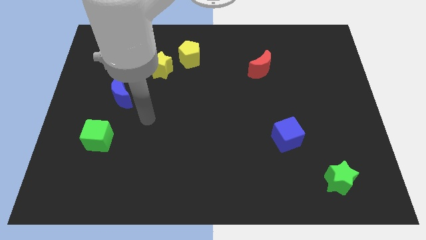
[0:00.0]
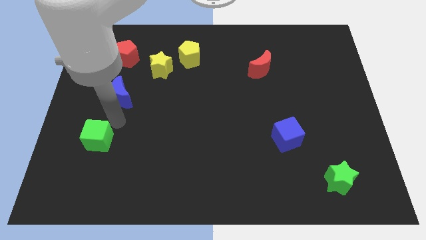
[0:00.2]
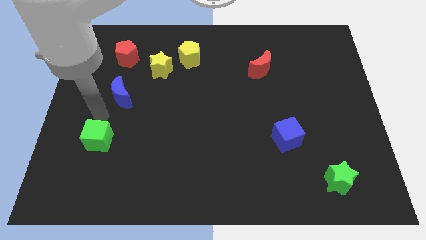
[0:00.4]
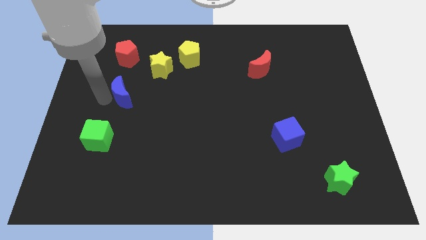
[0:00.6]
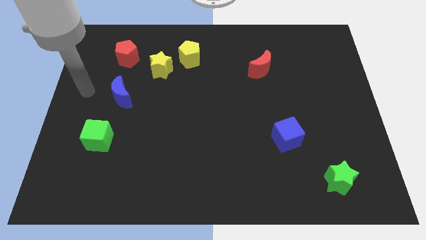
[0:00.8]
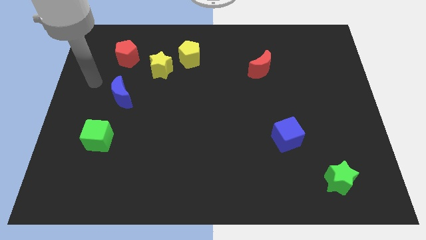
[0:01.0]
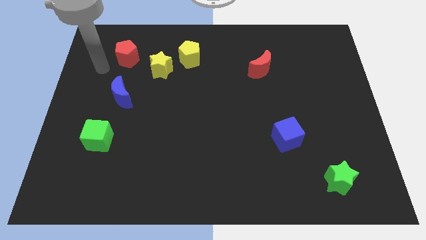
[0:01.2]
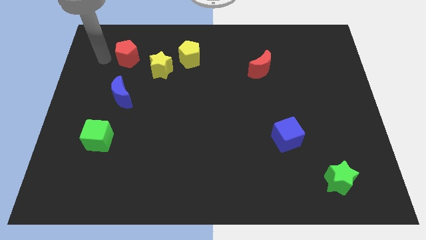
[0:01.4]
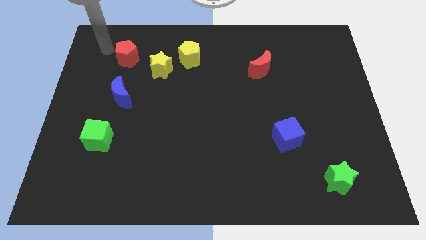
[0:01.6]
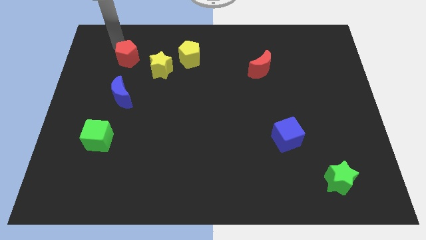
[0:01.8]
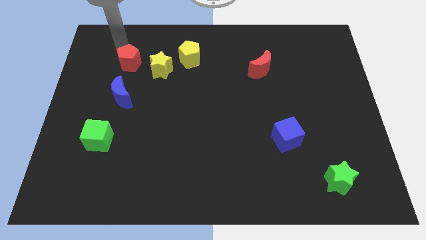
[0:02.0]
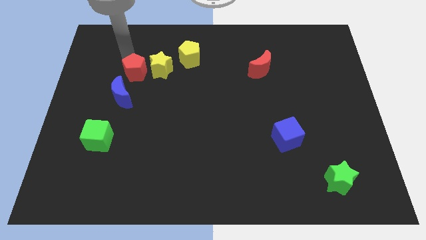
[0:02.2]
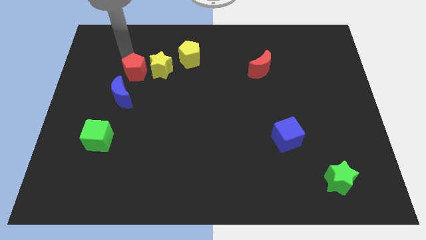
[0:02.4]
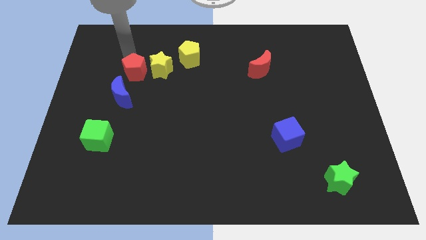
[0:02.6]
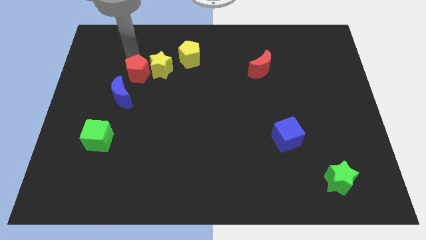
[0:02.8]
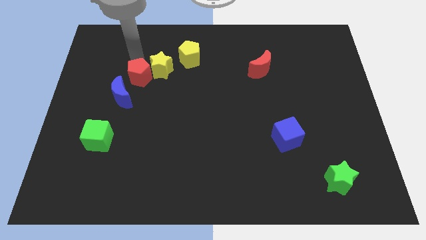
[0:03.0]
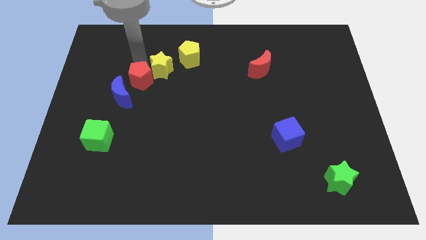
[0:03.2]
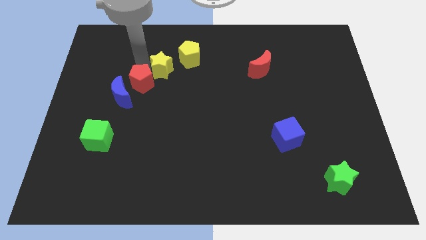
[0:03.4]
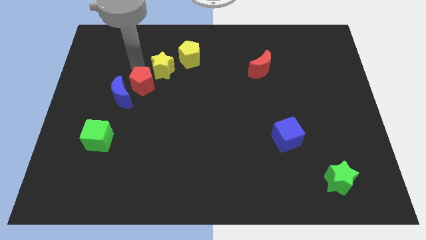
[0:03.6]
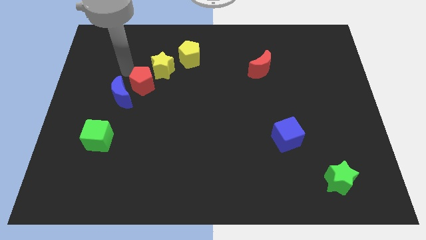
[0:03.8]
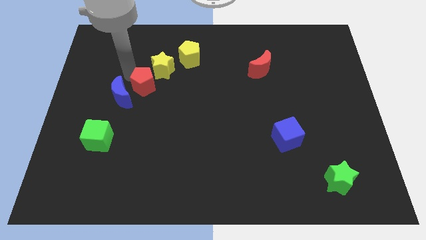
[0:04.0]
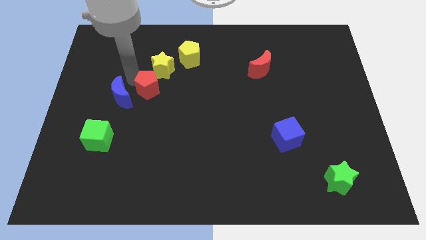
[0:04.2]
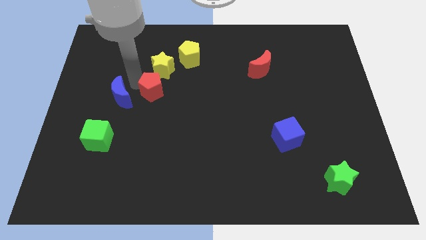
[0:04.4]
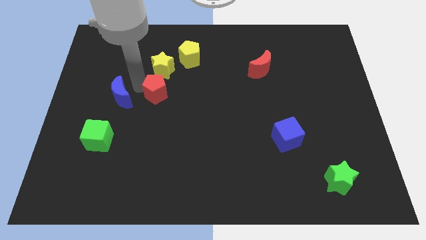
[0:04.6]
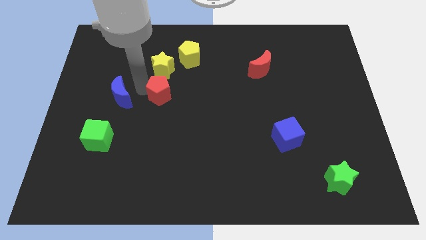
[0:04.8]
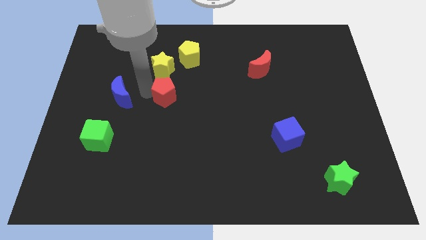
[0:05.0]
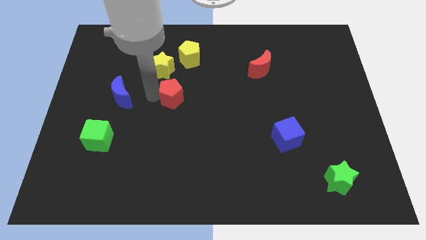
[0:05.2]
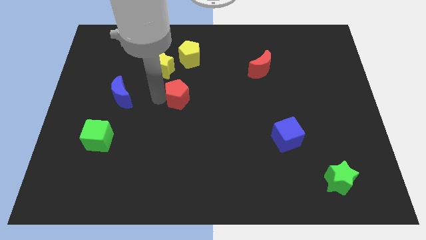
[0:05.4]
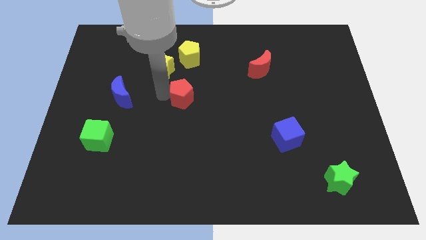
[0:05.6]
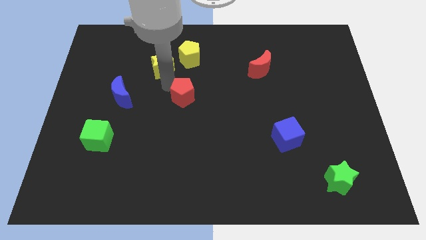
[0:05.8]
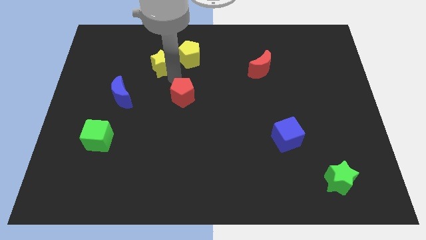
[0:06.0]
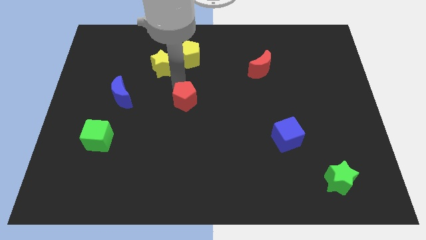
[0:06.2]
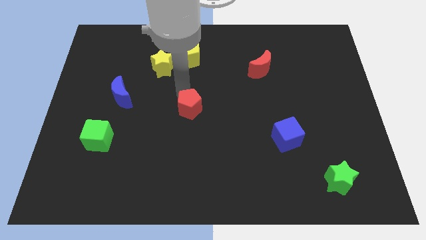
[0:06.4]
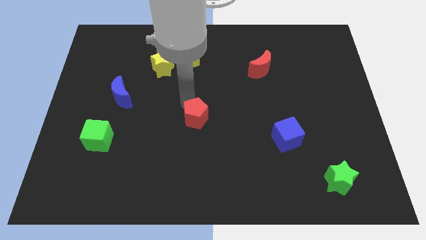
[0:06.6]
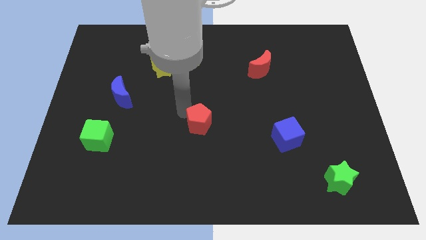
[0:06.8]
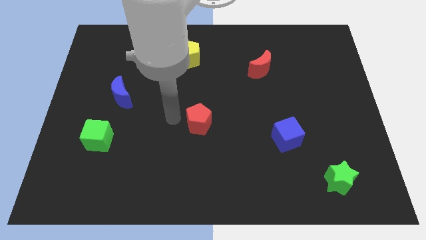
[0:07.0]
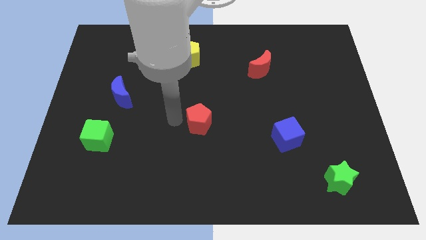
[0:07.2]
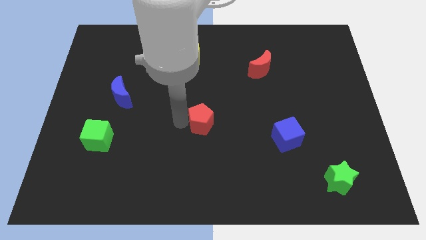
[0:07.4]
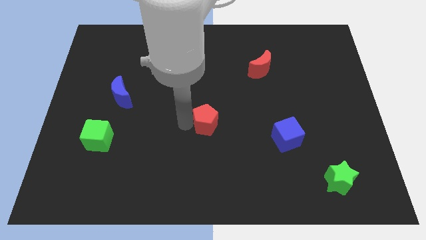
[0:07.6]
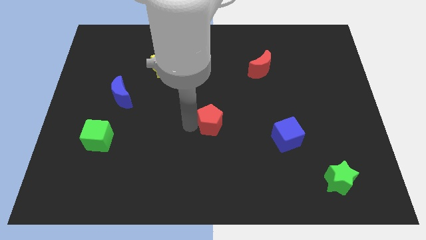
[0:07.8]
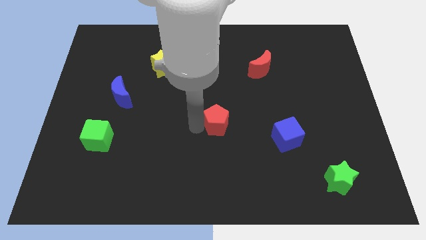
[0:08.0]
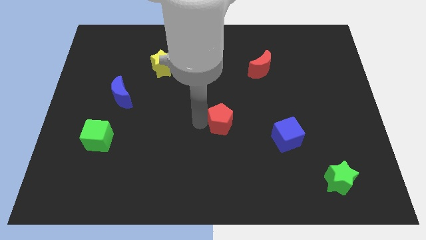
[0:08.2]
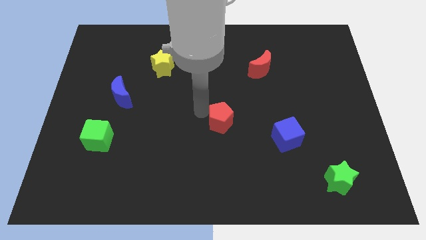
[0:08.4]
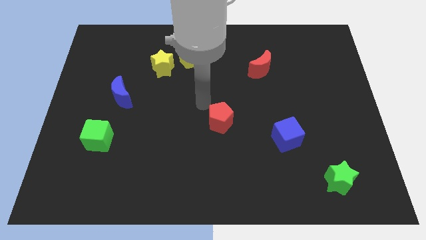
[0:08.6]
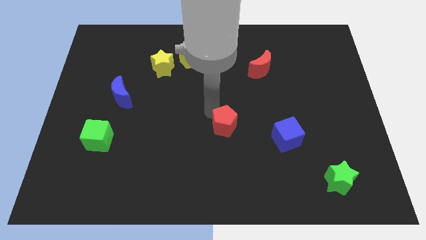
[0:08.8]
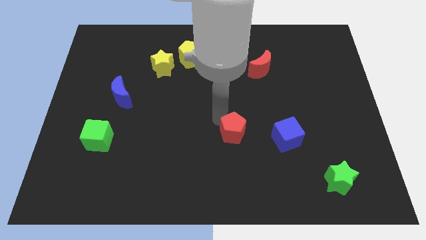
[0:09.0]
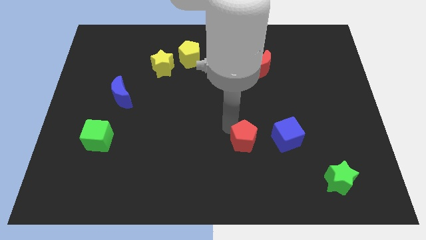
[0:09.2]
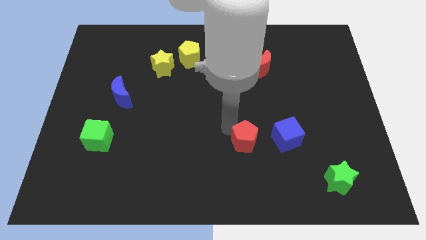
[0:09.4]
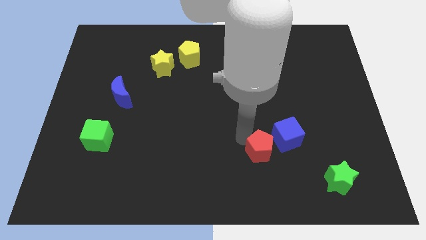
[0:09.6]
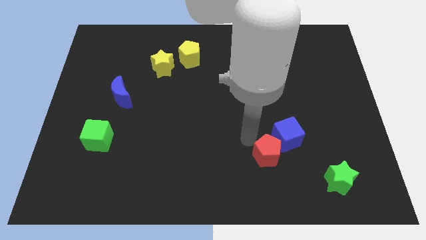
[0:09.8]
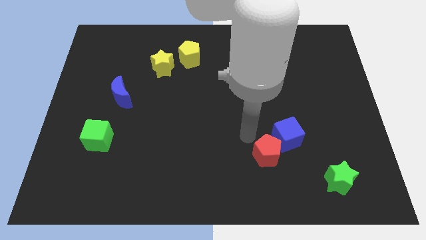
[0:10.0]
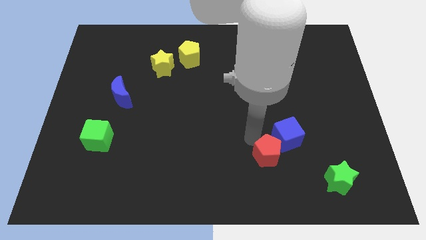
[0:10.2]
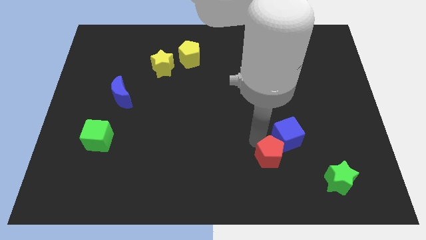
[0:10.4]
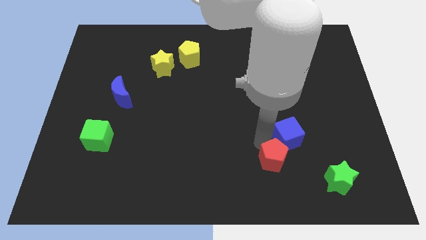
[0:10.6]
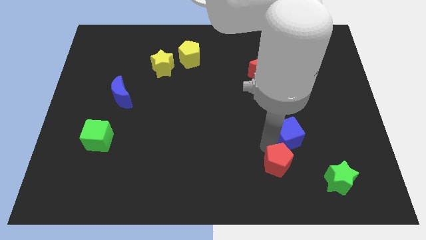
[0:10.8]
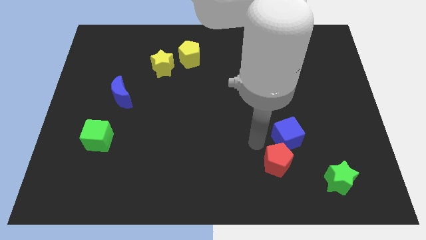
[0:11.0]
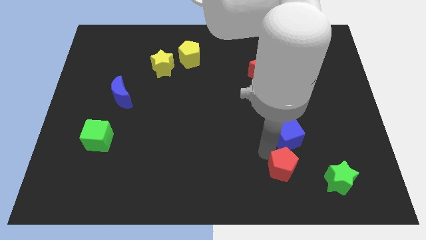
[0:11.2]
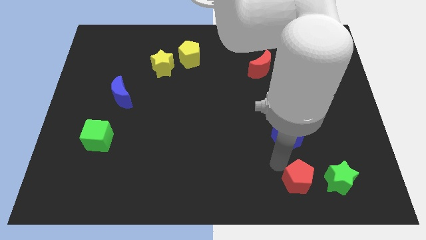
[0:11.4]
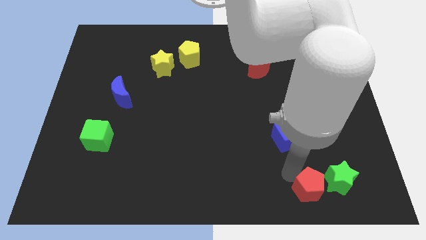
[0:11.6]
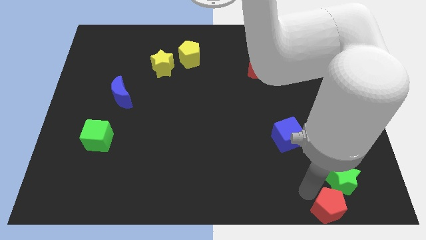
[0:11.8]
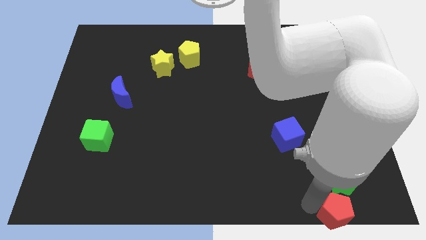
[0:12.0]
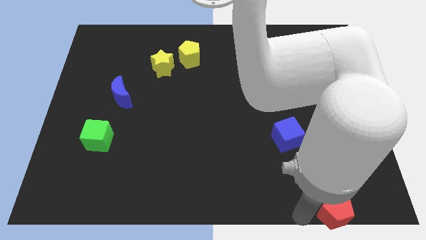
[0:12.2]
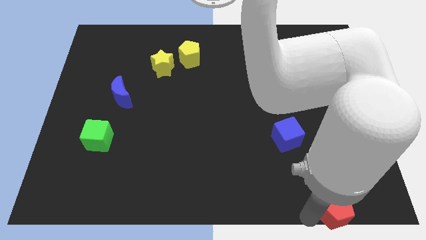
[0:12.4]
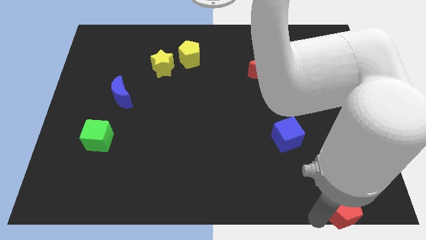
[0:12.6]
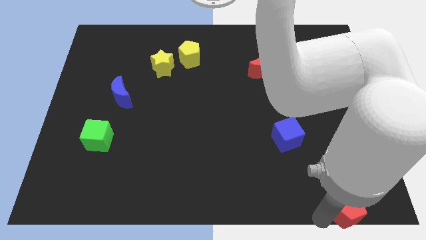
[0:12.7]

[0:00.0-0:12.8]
move the red pentagon to the bottom right corner
